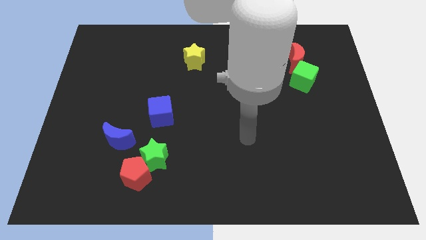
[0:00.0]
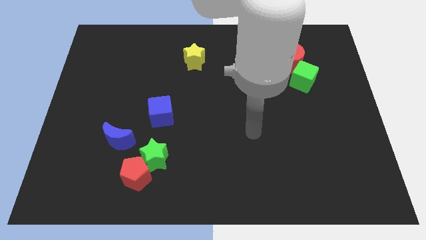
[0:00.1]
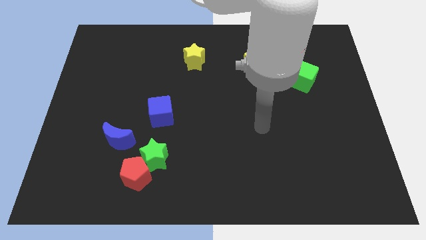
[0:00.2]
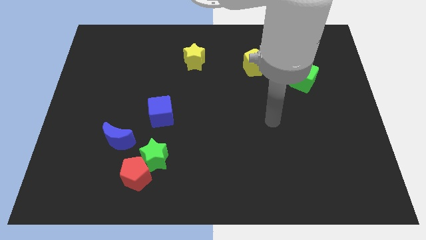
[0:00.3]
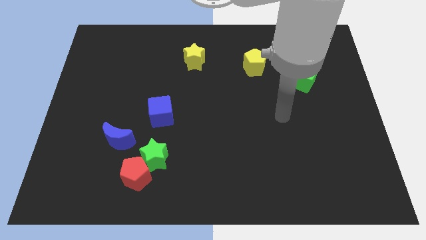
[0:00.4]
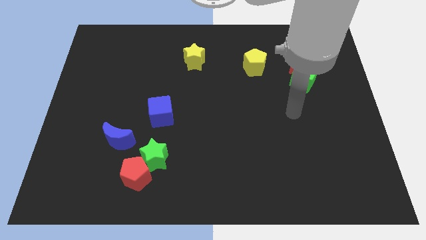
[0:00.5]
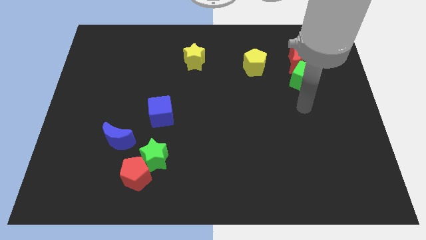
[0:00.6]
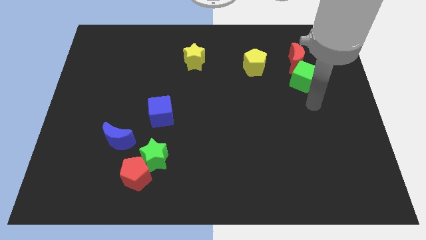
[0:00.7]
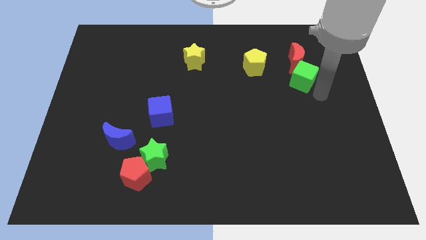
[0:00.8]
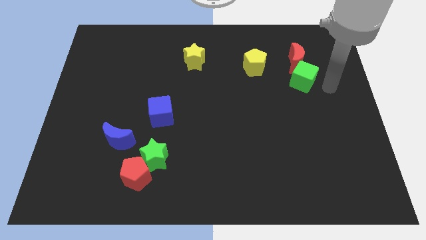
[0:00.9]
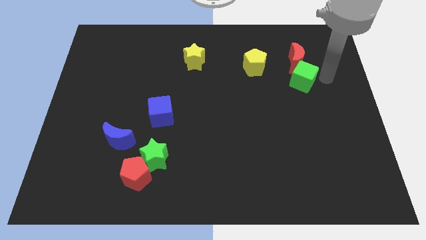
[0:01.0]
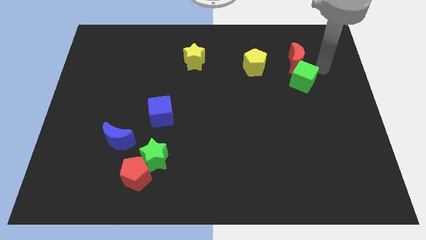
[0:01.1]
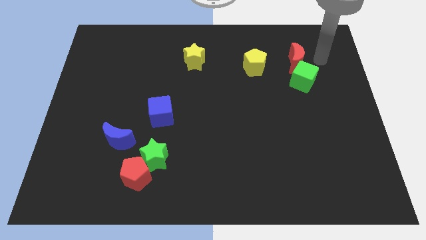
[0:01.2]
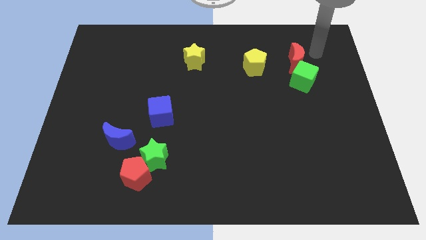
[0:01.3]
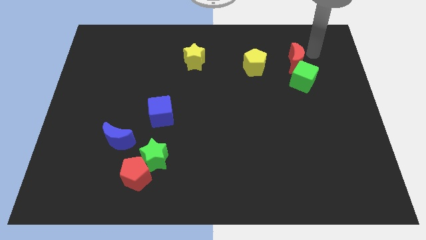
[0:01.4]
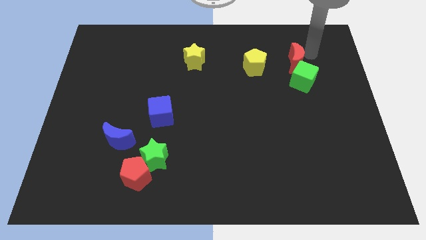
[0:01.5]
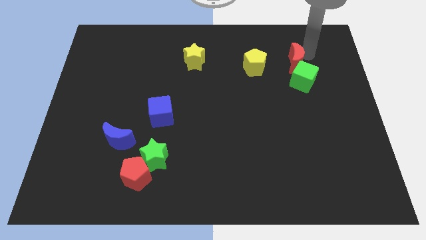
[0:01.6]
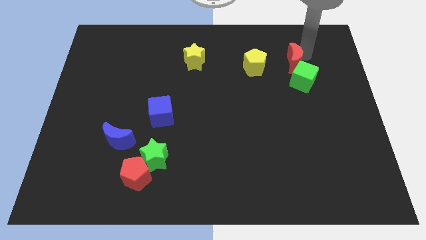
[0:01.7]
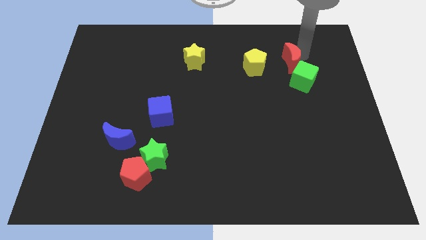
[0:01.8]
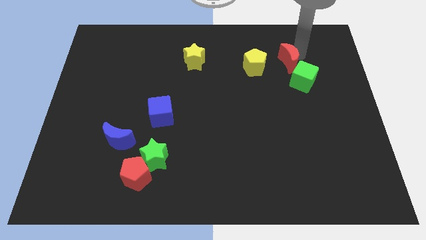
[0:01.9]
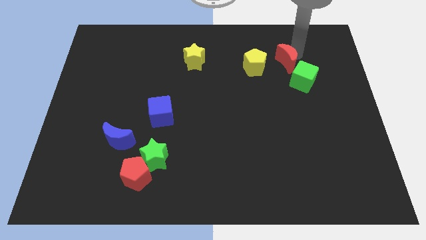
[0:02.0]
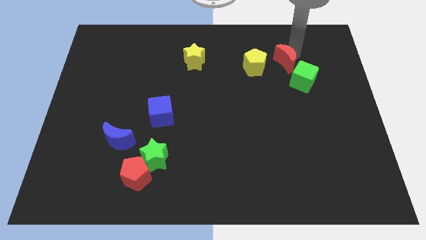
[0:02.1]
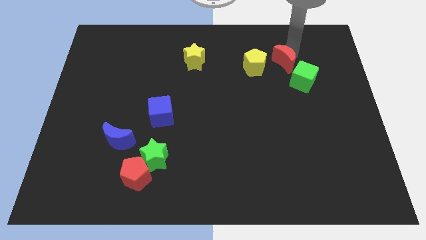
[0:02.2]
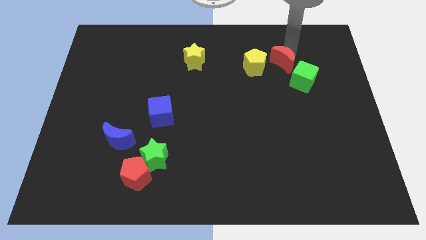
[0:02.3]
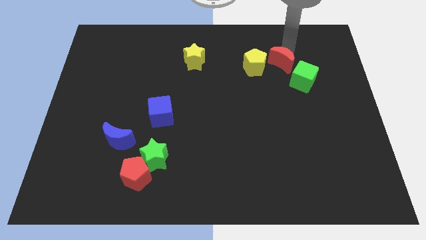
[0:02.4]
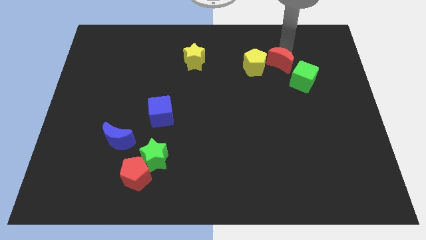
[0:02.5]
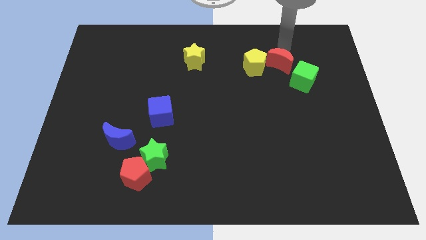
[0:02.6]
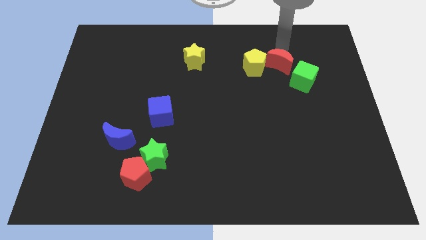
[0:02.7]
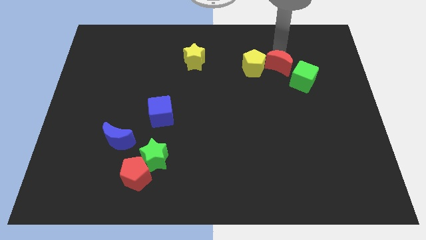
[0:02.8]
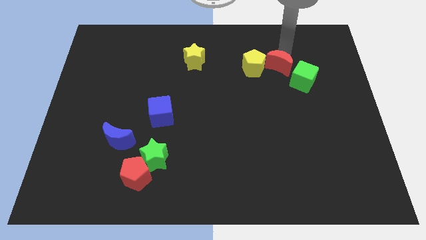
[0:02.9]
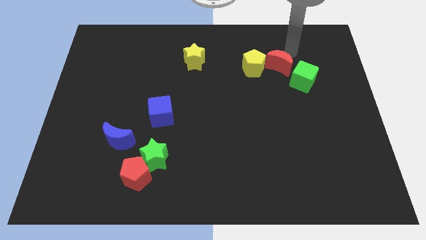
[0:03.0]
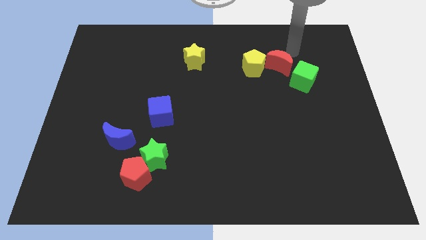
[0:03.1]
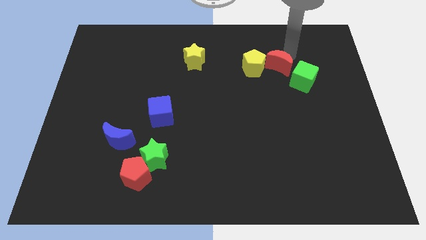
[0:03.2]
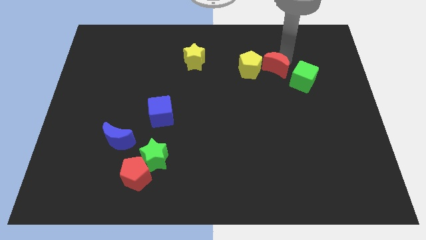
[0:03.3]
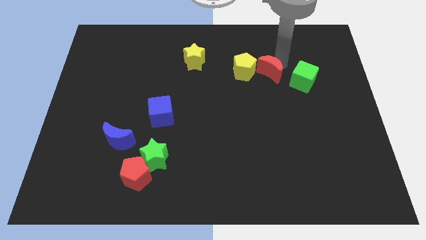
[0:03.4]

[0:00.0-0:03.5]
slightly push the red moon downwards and to the left diagonally

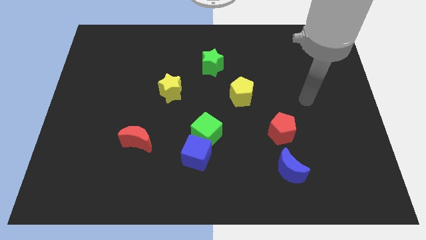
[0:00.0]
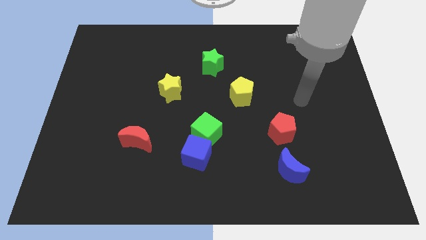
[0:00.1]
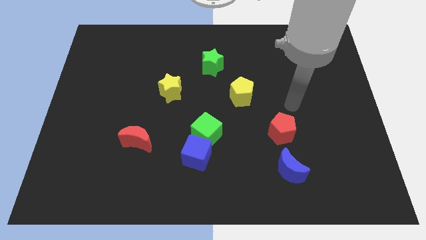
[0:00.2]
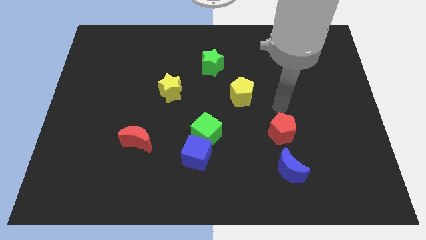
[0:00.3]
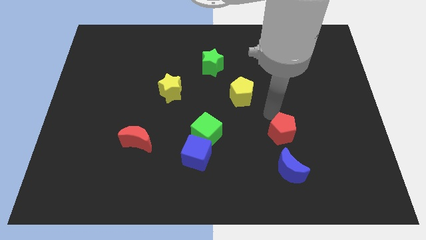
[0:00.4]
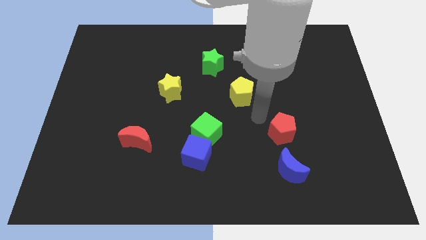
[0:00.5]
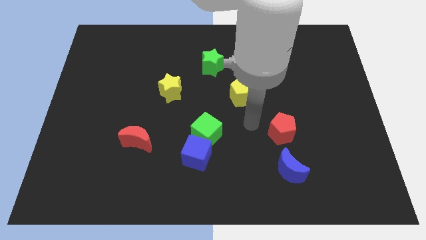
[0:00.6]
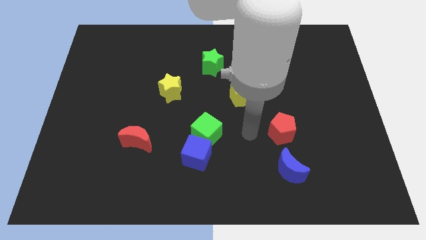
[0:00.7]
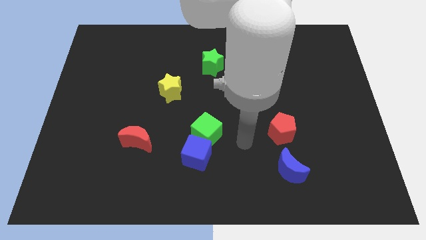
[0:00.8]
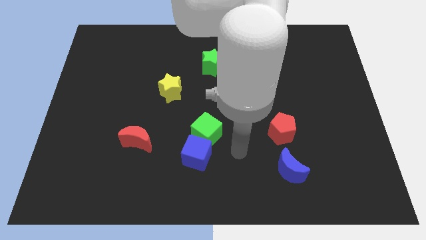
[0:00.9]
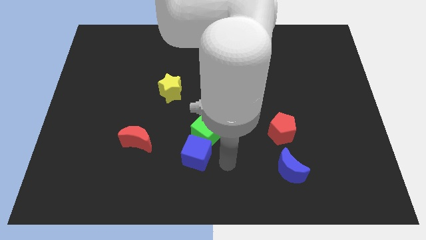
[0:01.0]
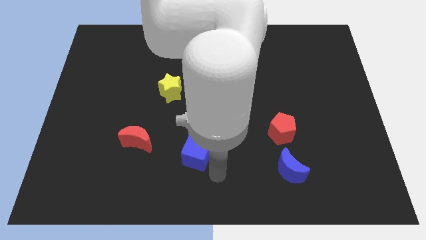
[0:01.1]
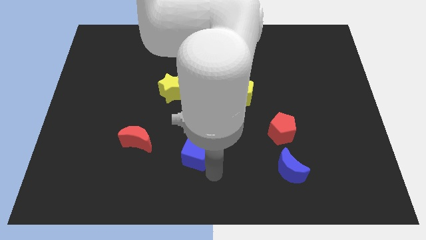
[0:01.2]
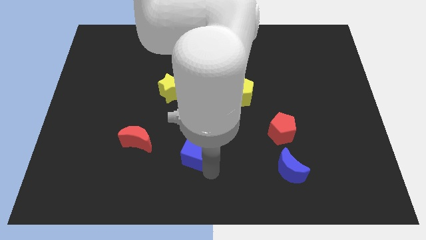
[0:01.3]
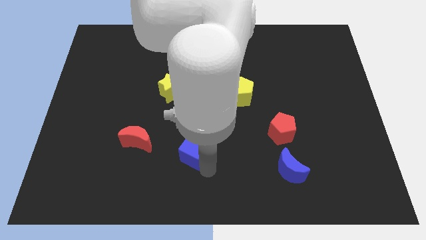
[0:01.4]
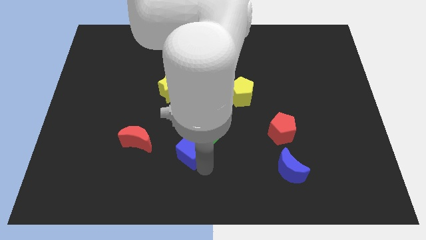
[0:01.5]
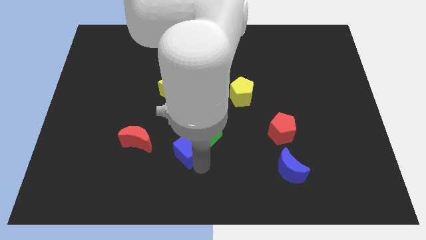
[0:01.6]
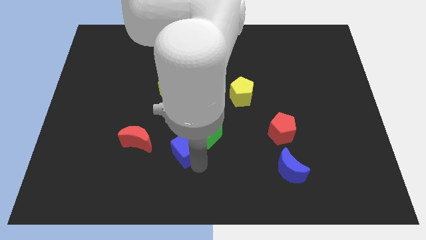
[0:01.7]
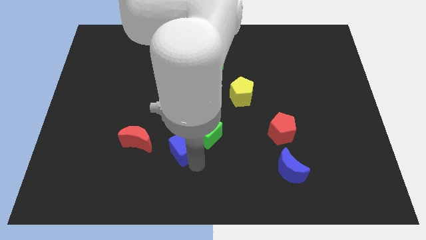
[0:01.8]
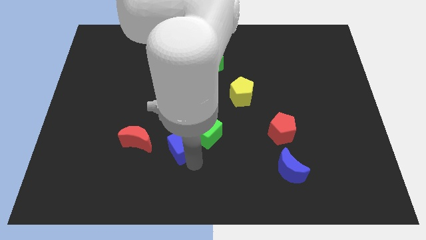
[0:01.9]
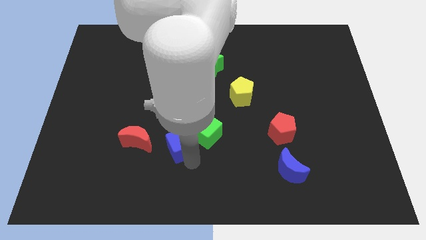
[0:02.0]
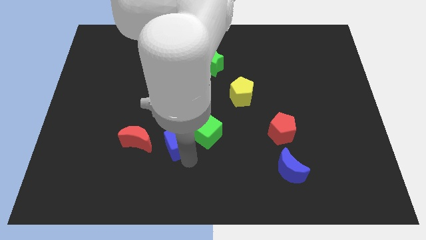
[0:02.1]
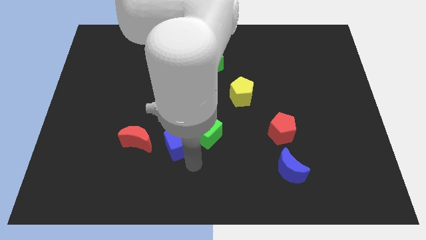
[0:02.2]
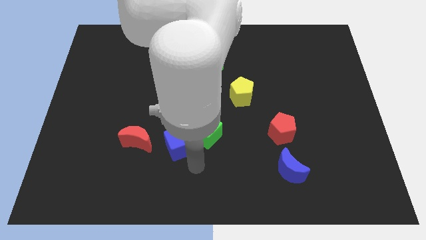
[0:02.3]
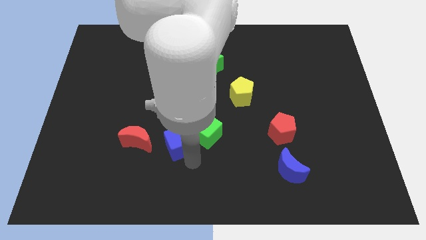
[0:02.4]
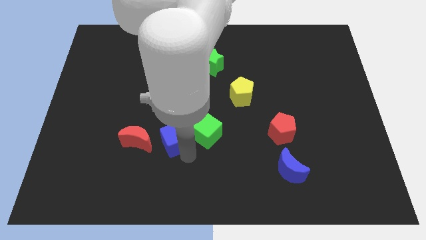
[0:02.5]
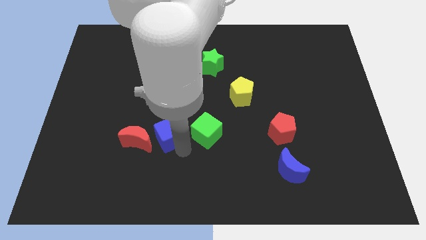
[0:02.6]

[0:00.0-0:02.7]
move the blue cube up and to the left diagonally a little bit

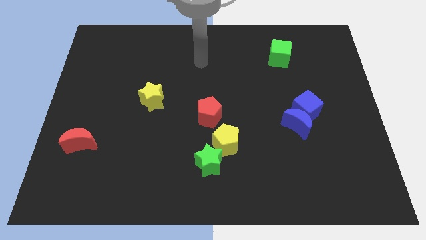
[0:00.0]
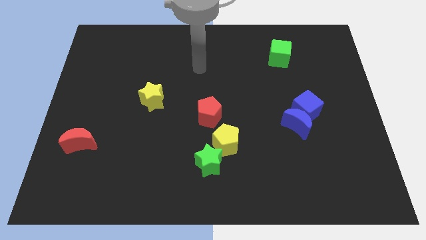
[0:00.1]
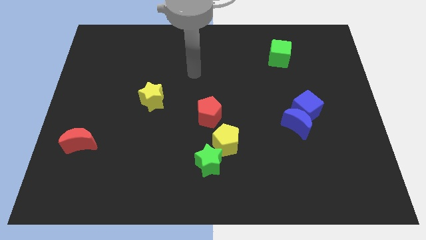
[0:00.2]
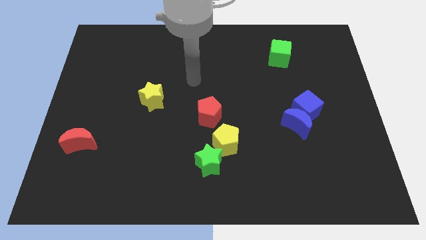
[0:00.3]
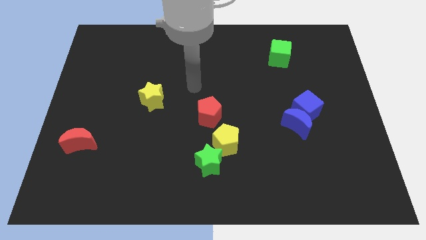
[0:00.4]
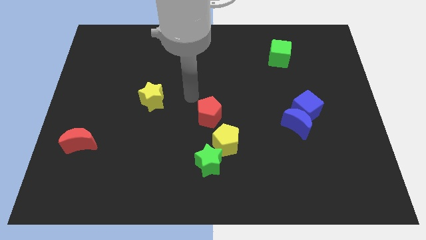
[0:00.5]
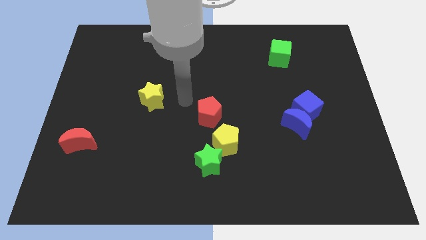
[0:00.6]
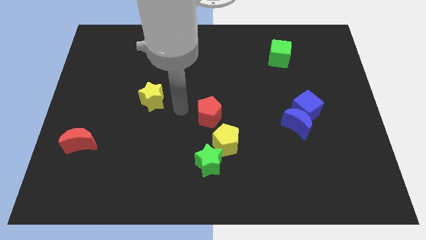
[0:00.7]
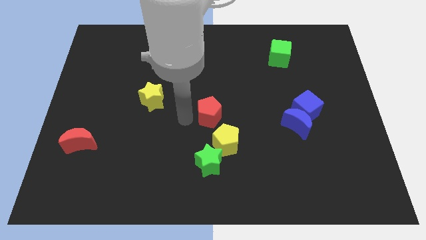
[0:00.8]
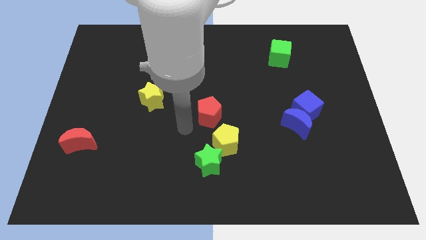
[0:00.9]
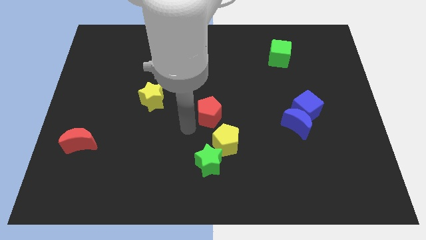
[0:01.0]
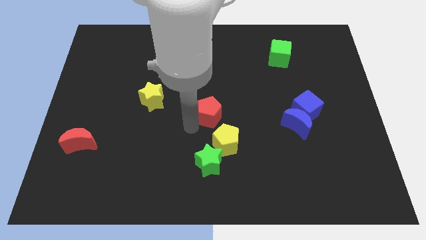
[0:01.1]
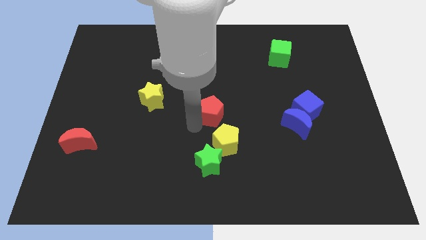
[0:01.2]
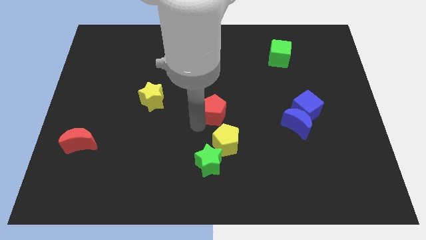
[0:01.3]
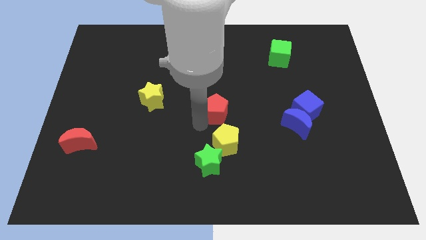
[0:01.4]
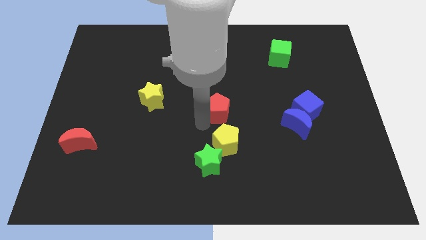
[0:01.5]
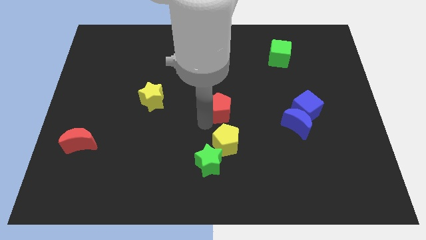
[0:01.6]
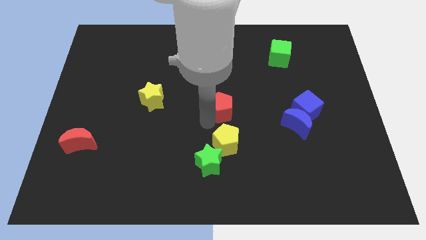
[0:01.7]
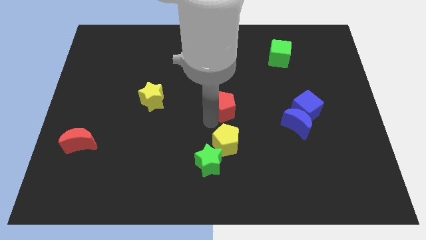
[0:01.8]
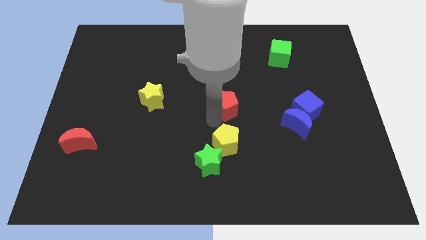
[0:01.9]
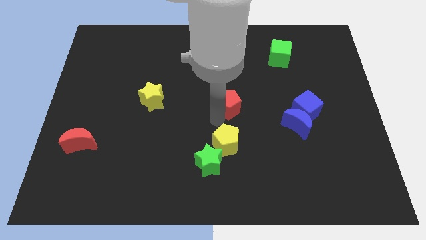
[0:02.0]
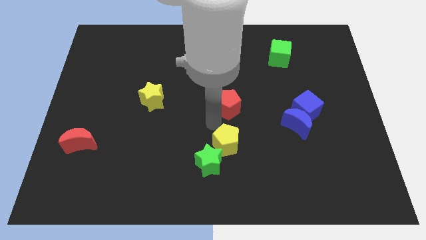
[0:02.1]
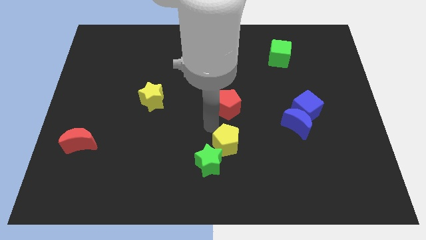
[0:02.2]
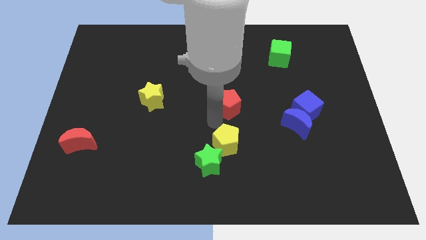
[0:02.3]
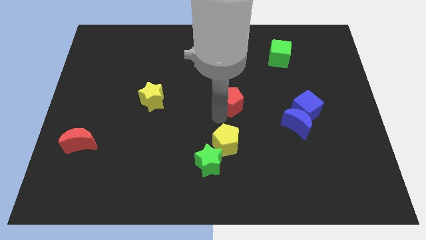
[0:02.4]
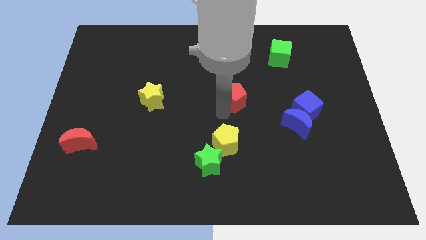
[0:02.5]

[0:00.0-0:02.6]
slide the red pentagon slightly up and then right
